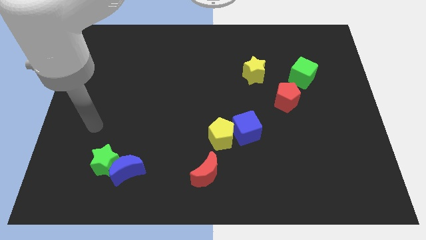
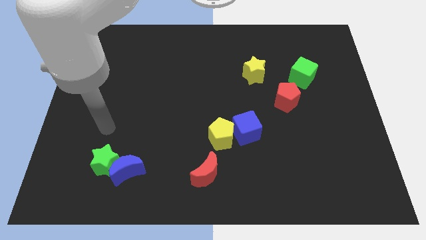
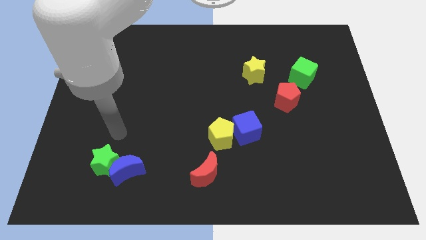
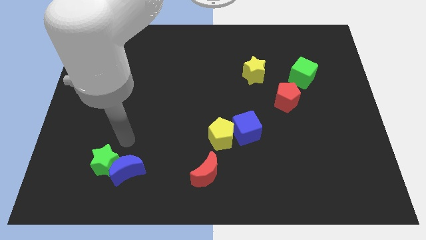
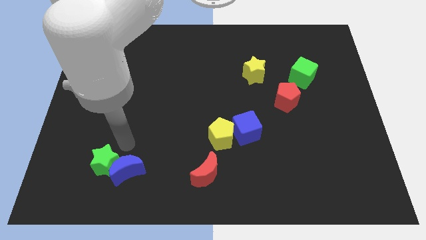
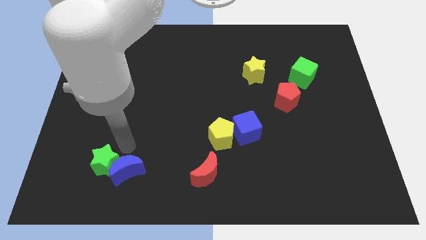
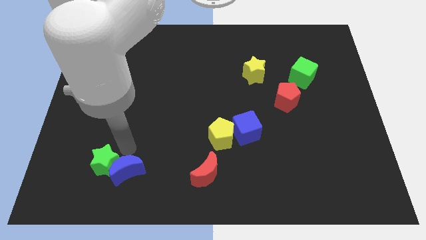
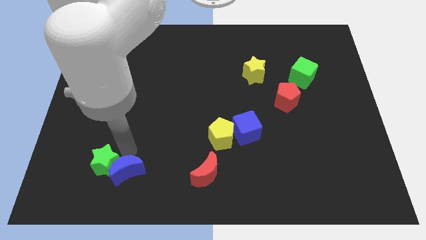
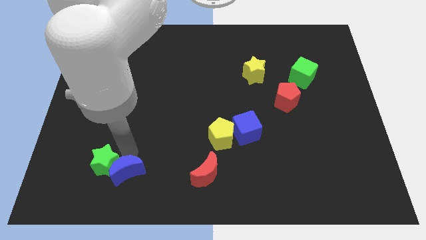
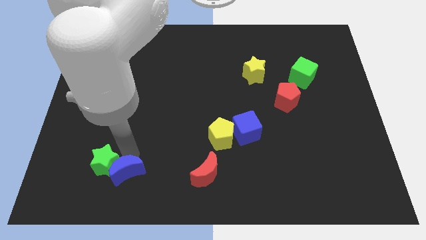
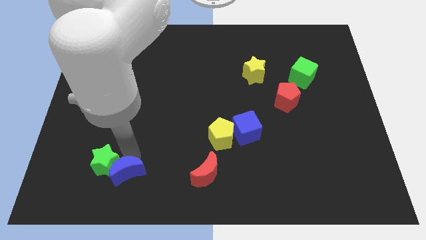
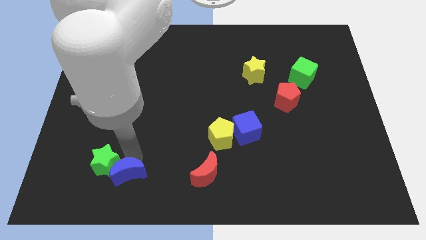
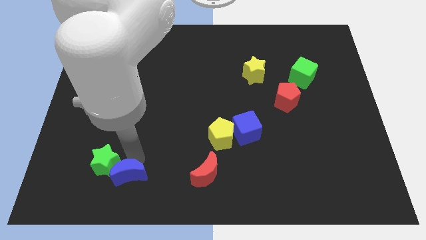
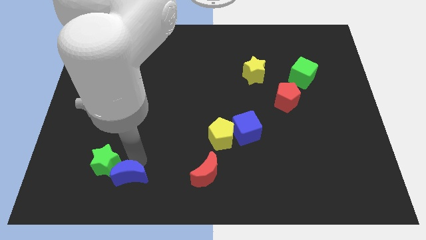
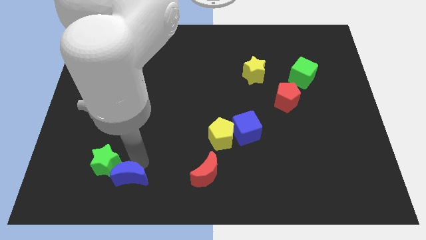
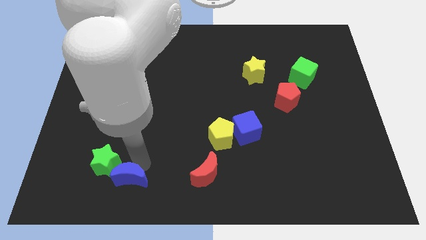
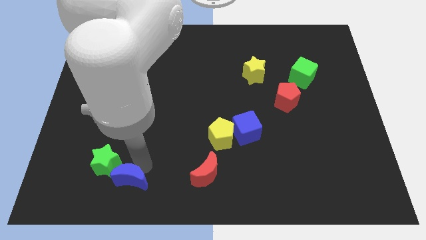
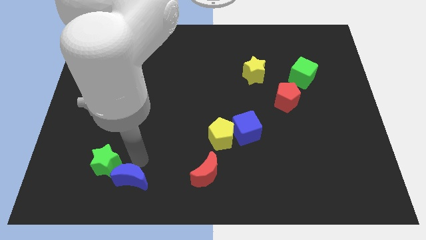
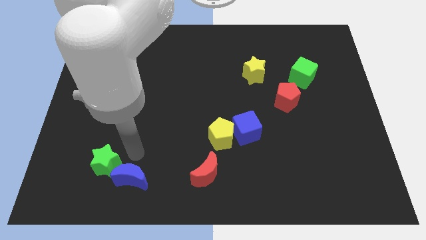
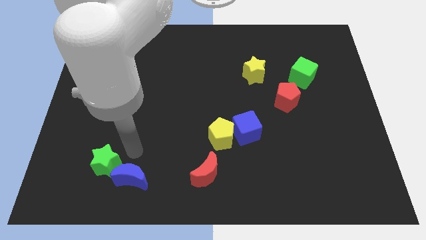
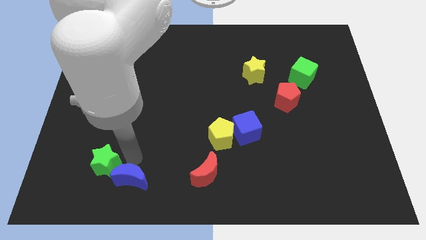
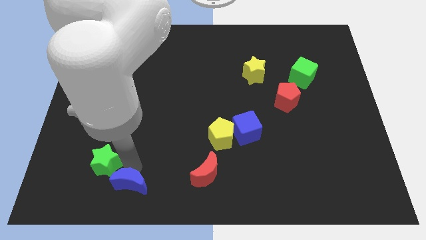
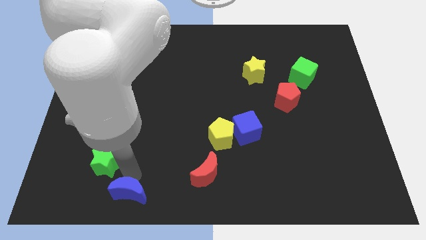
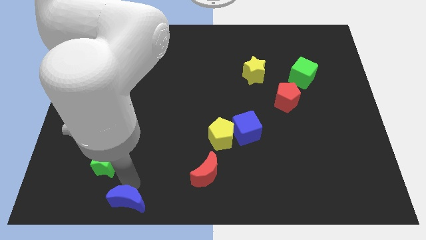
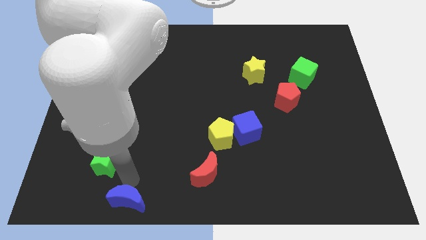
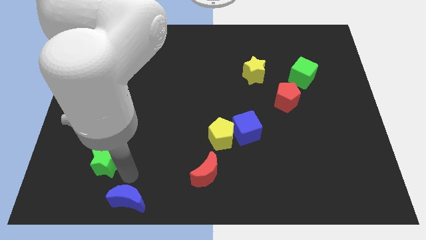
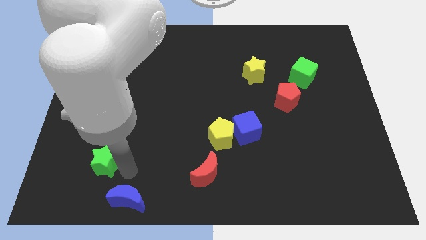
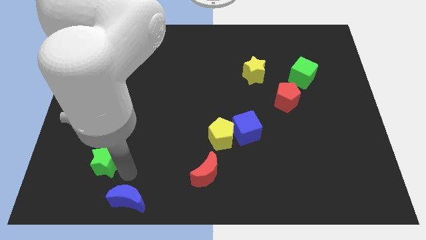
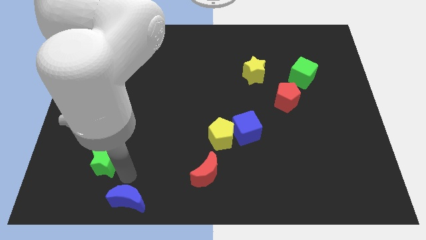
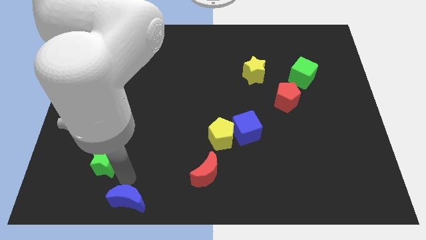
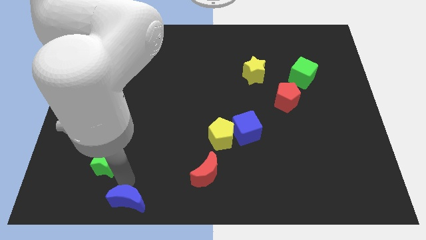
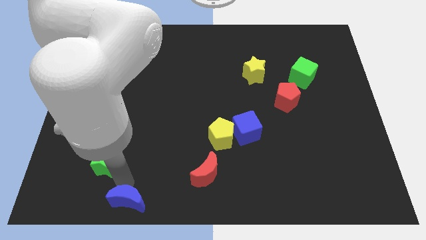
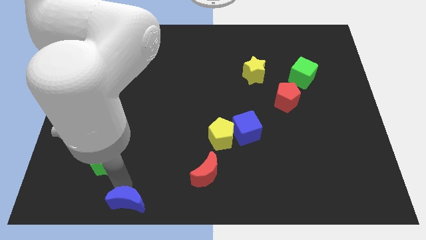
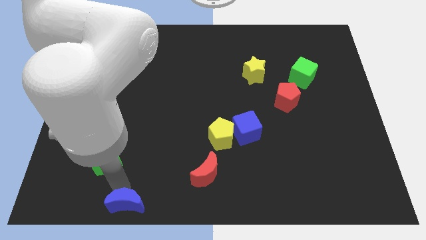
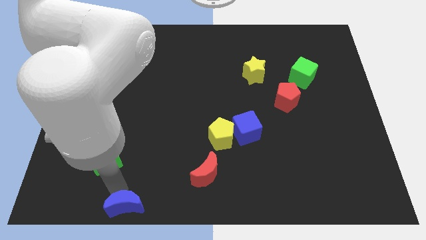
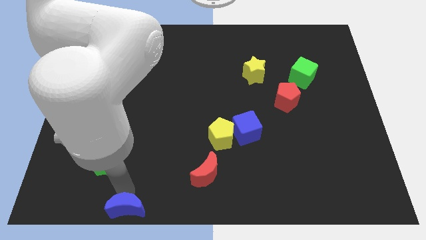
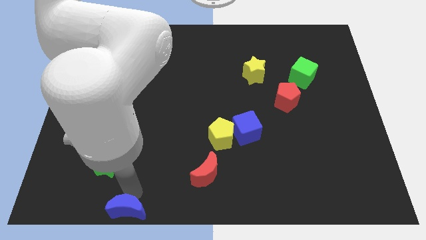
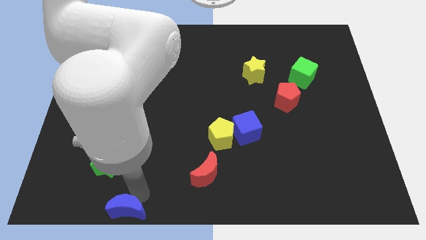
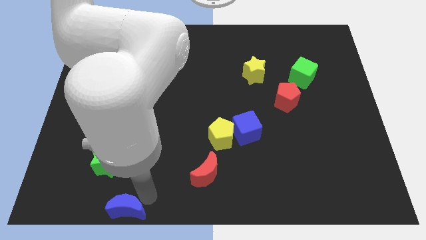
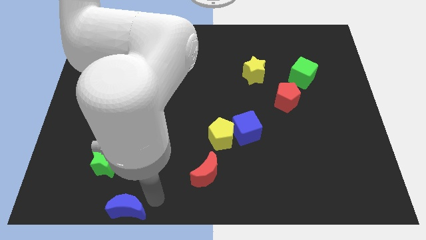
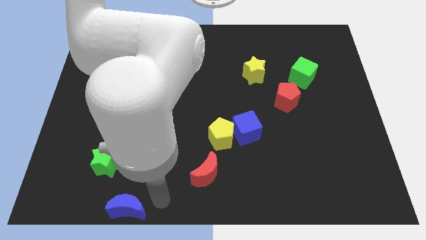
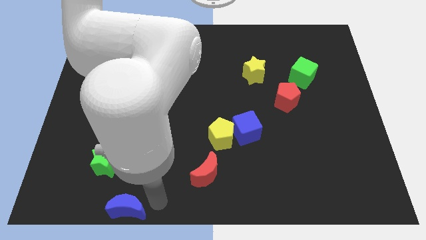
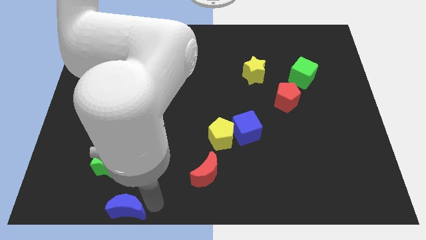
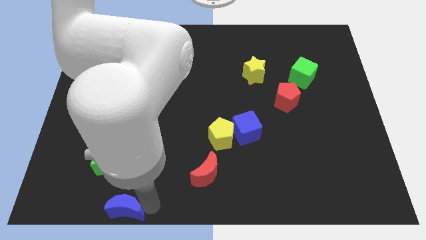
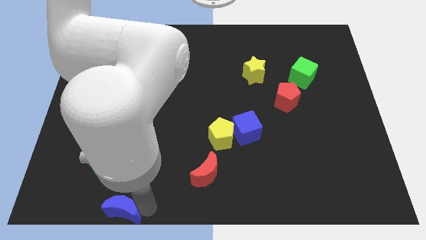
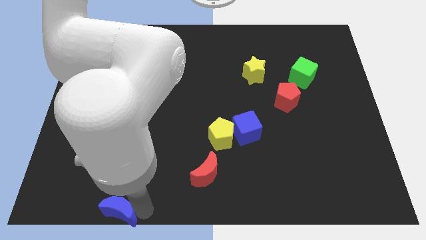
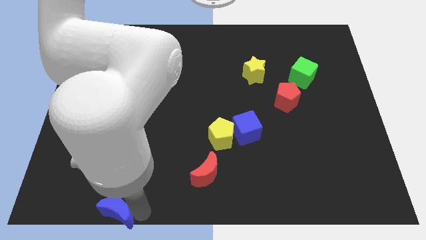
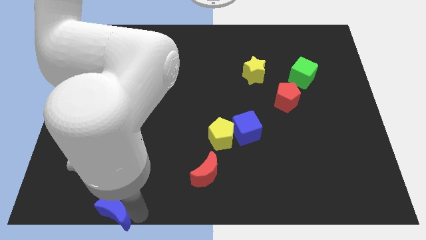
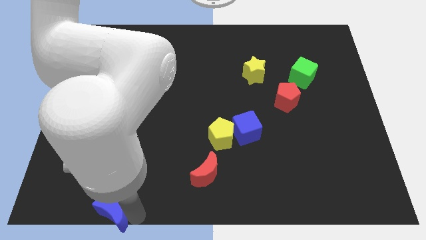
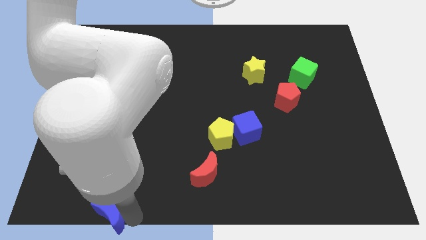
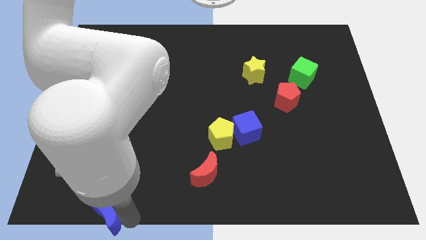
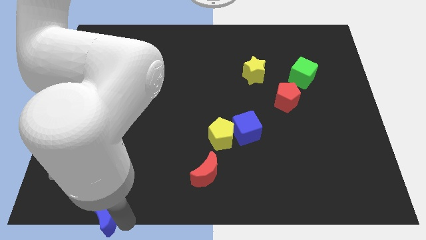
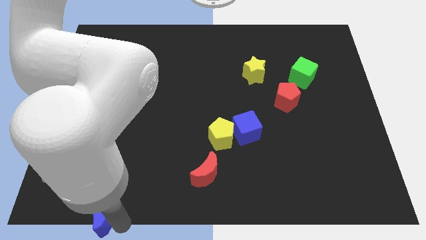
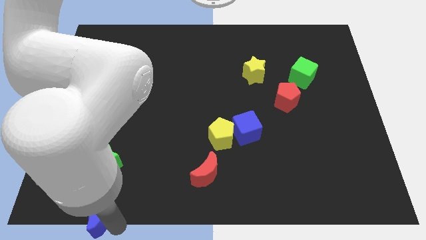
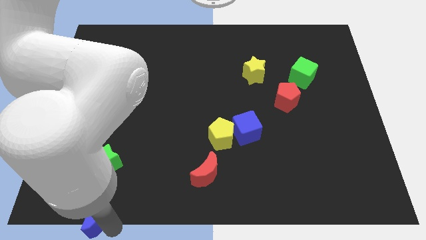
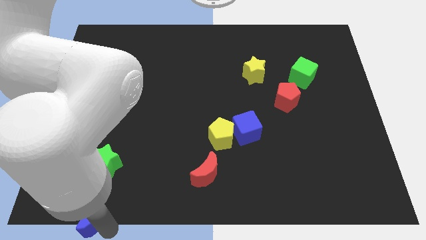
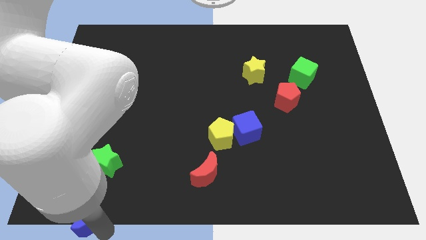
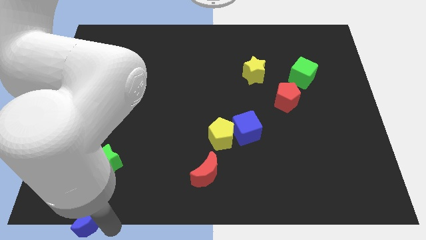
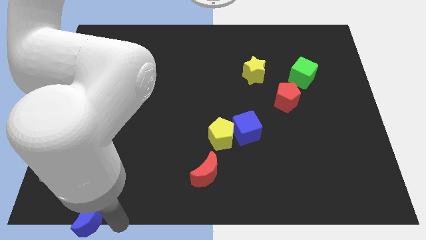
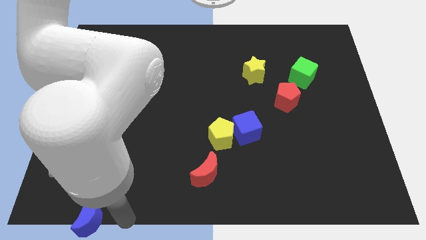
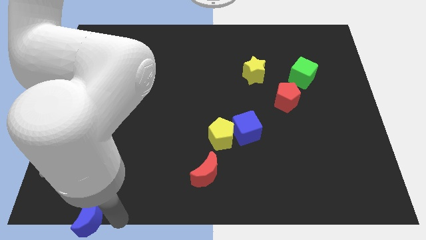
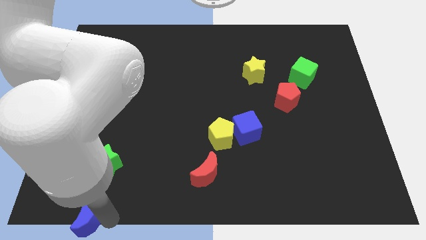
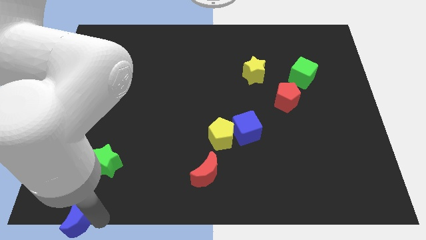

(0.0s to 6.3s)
push the blue moon to the bottom left
